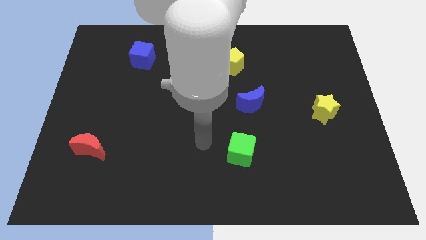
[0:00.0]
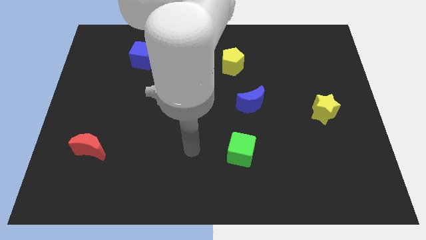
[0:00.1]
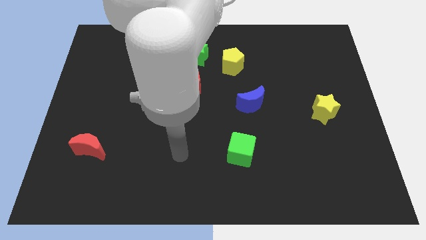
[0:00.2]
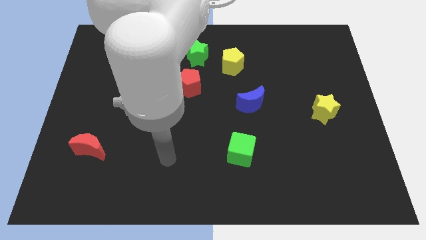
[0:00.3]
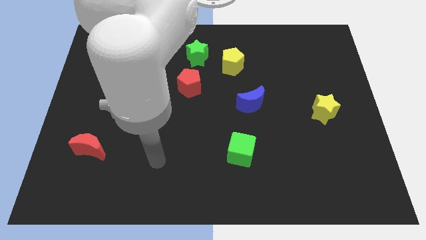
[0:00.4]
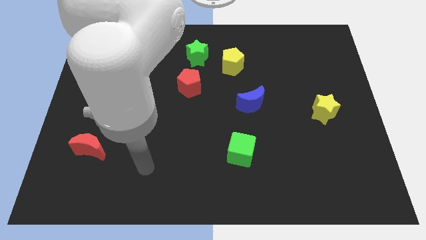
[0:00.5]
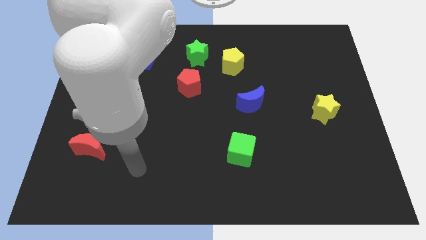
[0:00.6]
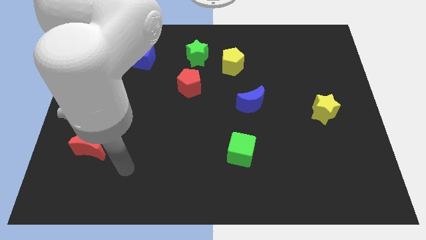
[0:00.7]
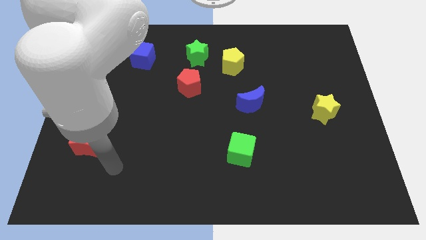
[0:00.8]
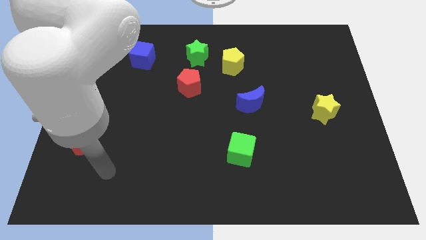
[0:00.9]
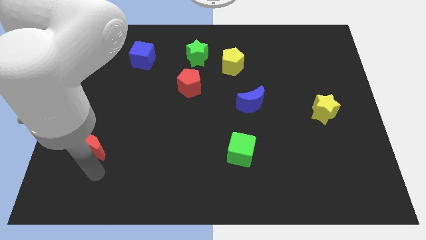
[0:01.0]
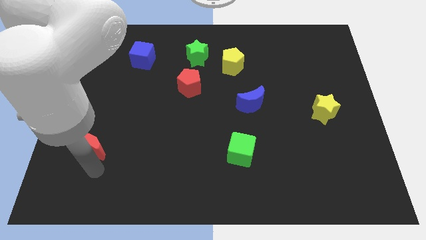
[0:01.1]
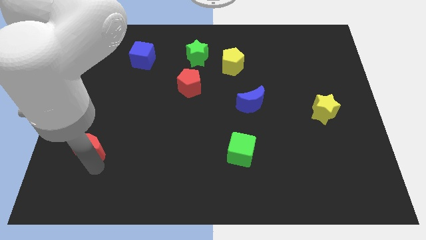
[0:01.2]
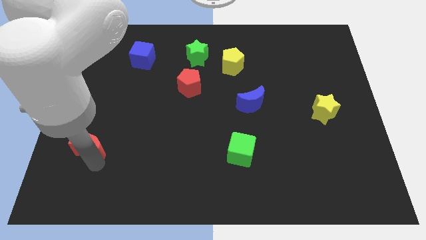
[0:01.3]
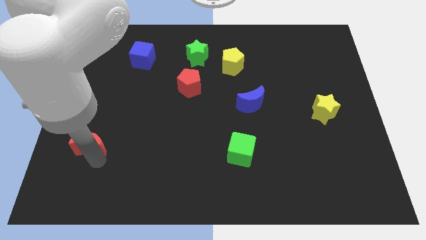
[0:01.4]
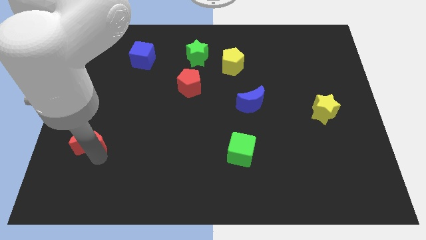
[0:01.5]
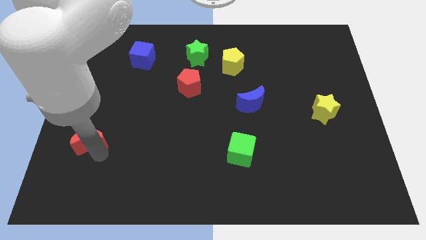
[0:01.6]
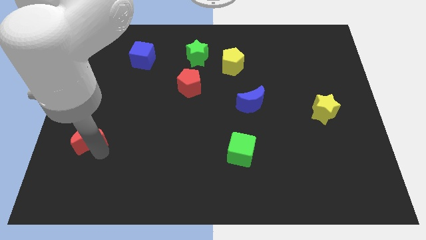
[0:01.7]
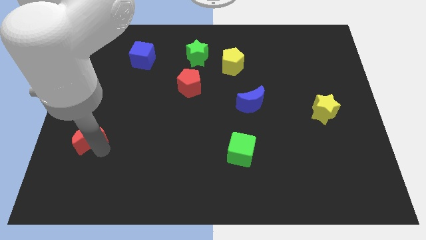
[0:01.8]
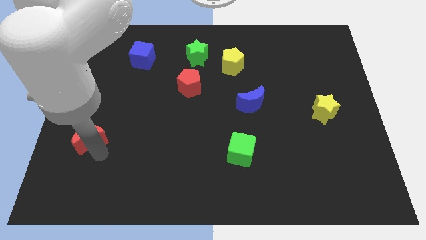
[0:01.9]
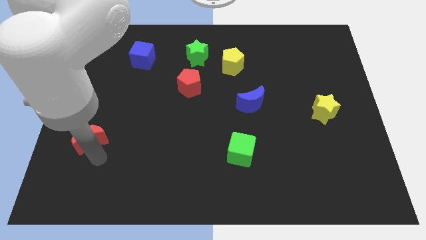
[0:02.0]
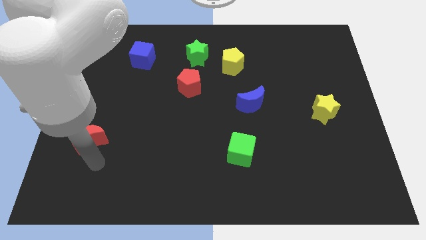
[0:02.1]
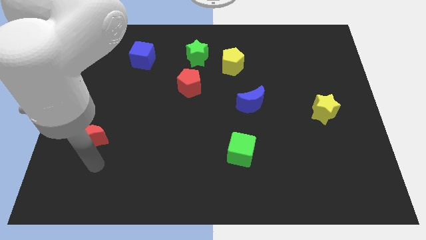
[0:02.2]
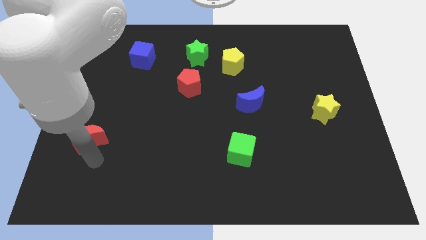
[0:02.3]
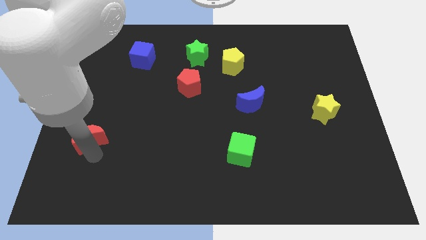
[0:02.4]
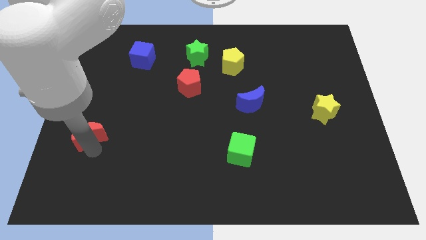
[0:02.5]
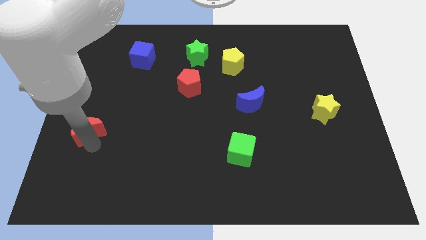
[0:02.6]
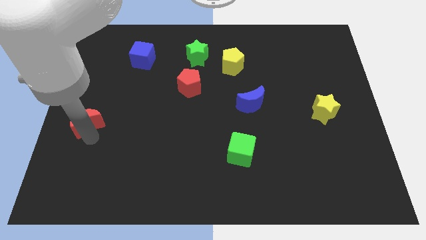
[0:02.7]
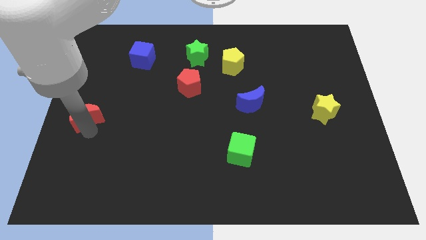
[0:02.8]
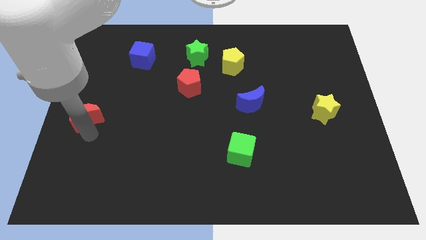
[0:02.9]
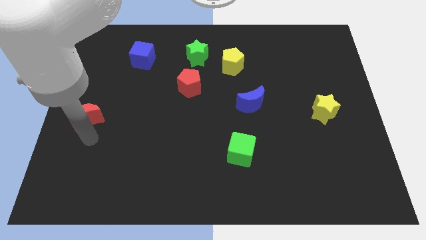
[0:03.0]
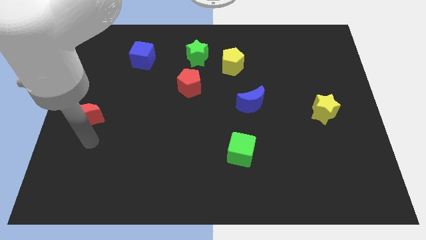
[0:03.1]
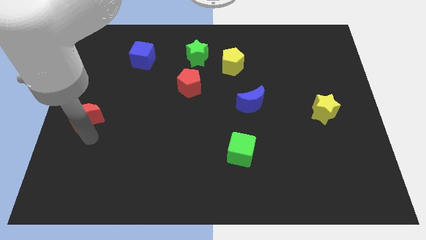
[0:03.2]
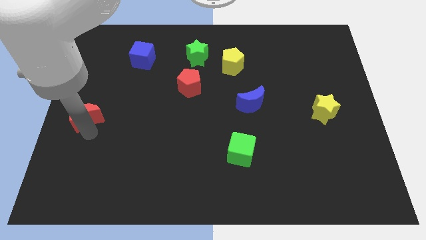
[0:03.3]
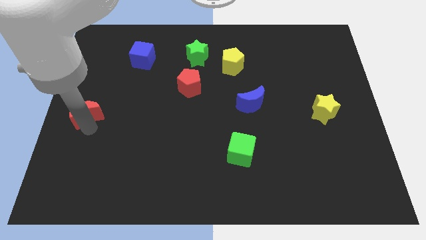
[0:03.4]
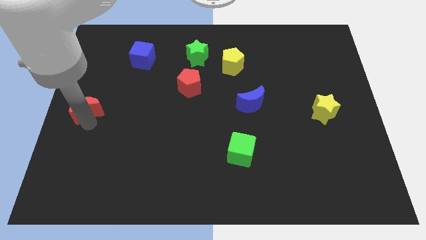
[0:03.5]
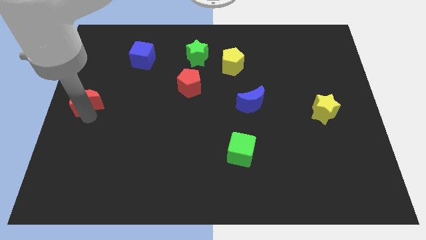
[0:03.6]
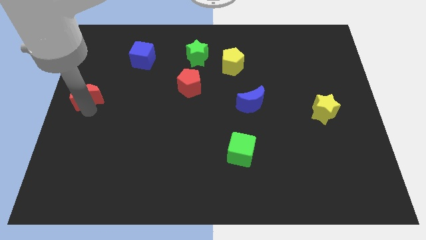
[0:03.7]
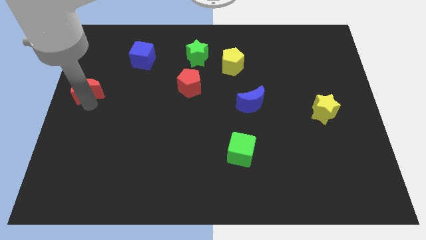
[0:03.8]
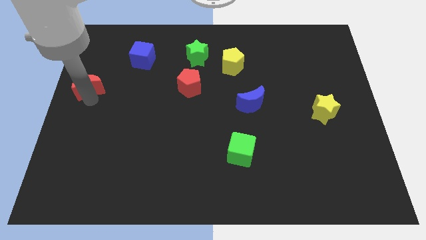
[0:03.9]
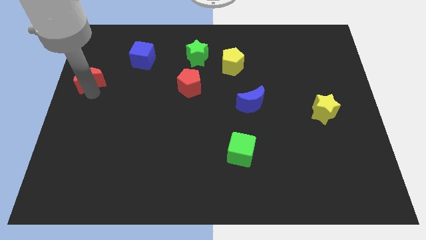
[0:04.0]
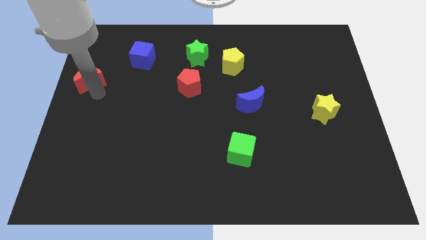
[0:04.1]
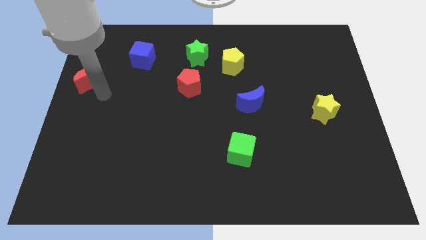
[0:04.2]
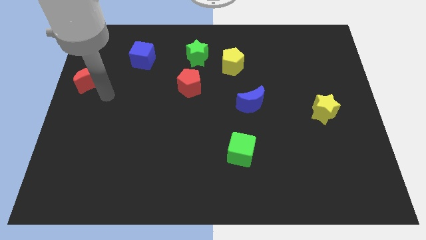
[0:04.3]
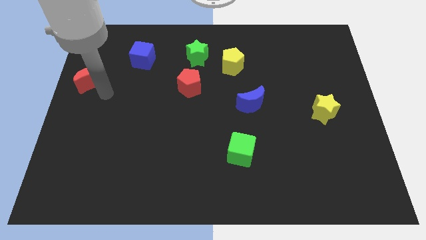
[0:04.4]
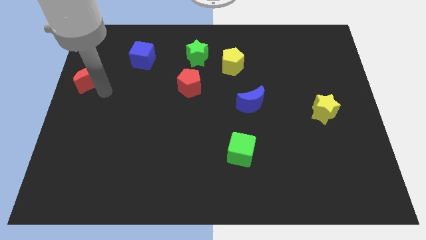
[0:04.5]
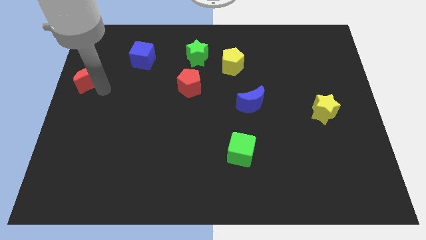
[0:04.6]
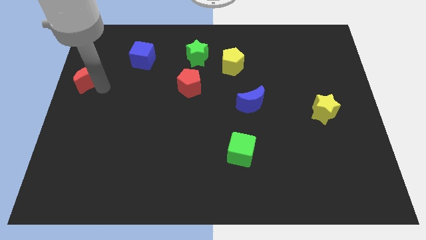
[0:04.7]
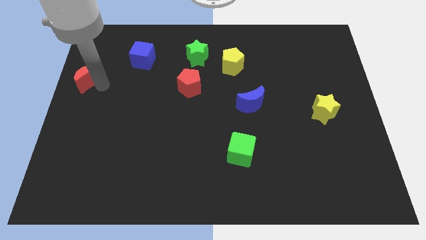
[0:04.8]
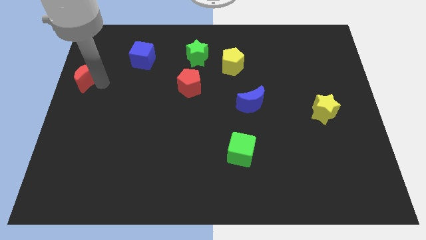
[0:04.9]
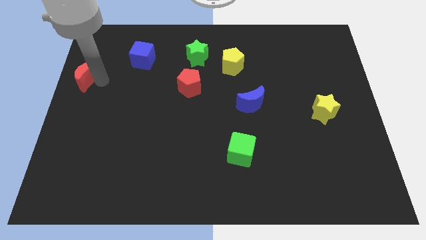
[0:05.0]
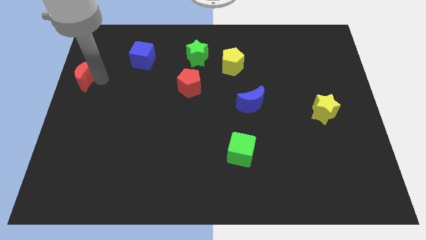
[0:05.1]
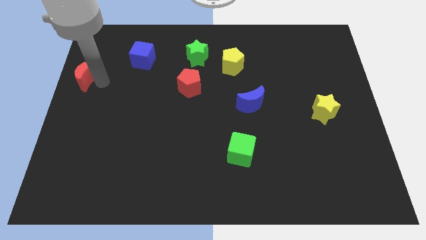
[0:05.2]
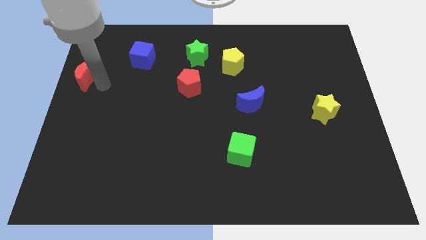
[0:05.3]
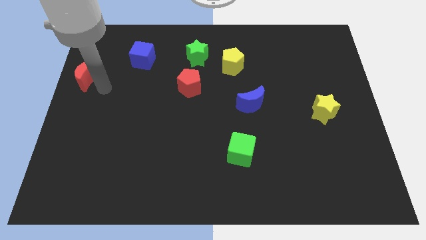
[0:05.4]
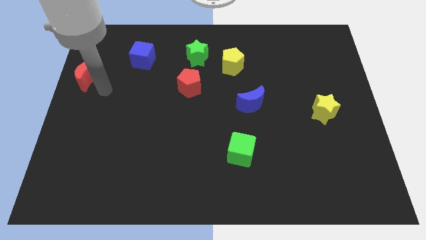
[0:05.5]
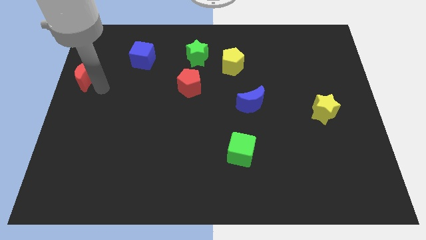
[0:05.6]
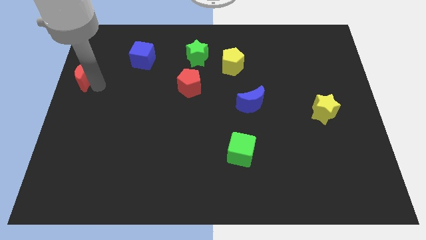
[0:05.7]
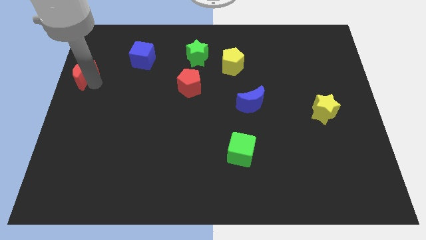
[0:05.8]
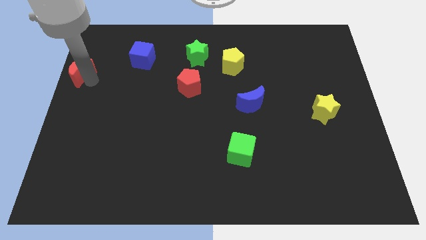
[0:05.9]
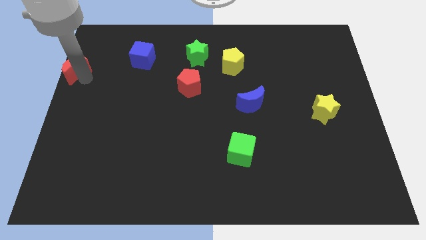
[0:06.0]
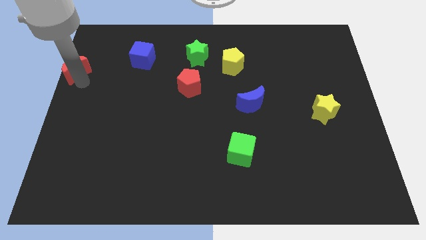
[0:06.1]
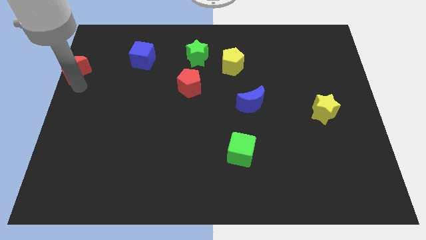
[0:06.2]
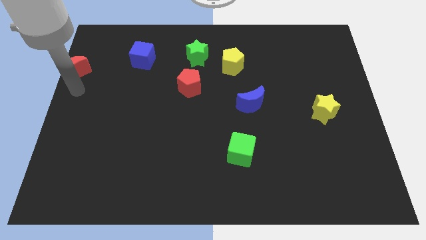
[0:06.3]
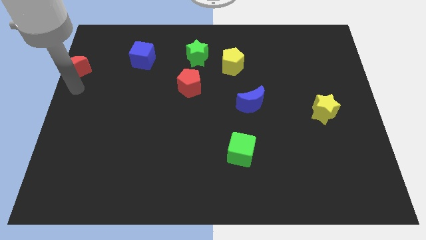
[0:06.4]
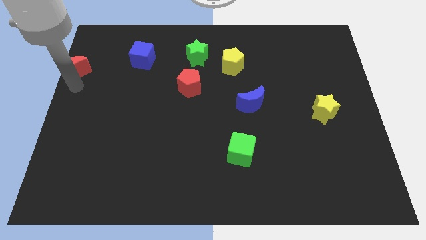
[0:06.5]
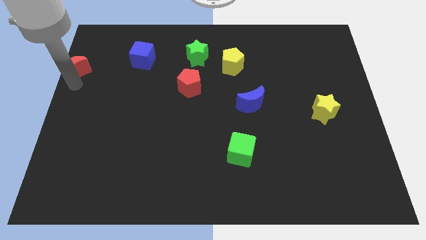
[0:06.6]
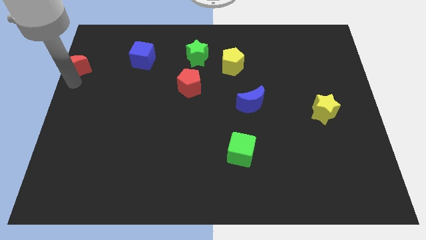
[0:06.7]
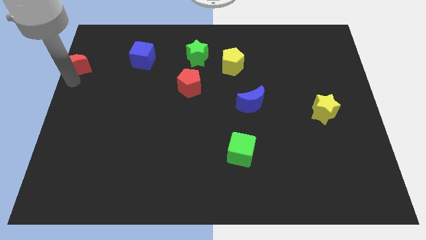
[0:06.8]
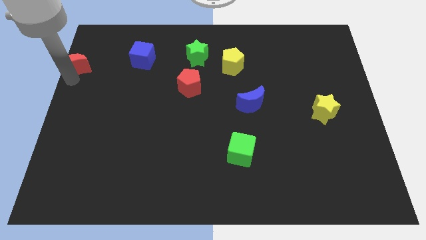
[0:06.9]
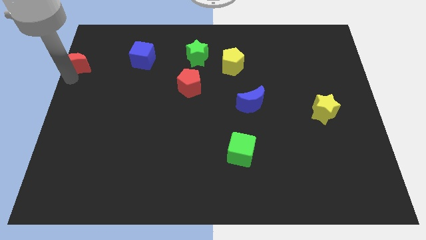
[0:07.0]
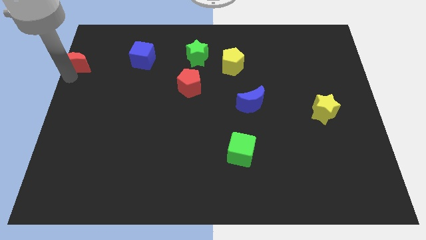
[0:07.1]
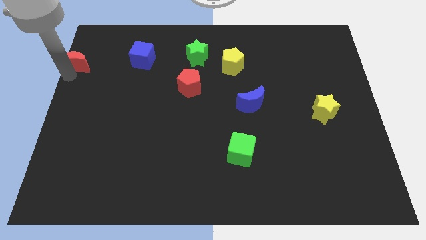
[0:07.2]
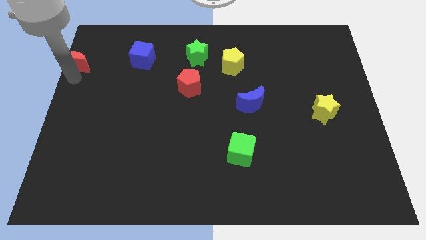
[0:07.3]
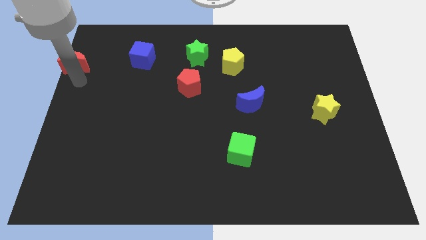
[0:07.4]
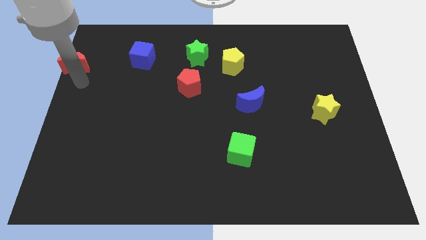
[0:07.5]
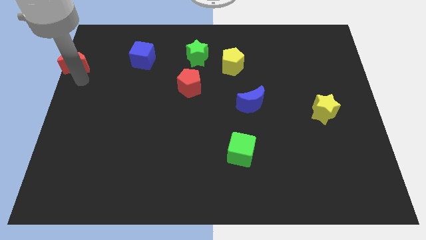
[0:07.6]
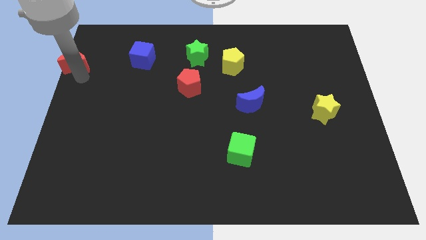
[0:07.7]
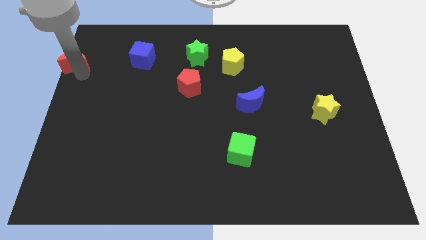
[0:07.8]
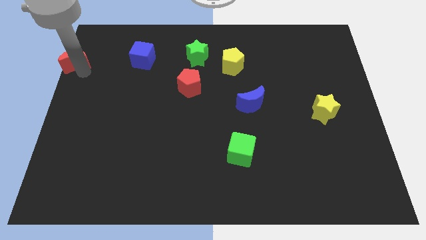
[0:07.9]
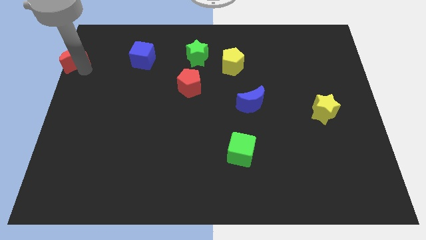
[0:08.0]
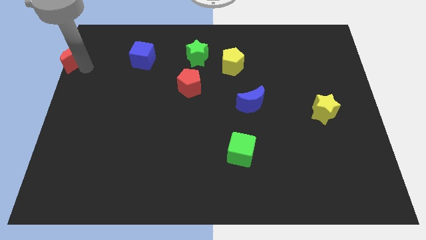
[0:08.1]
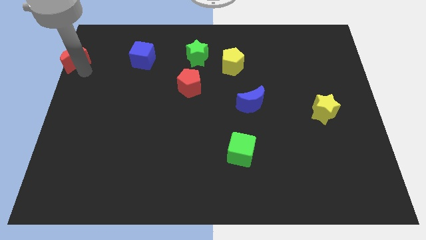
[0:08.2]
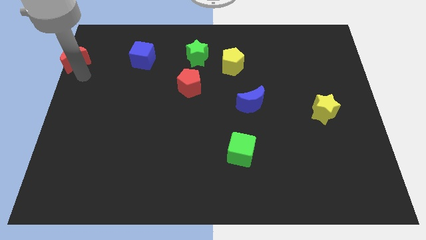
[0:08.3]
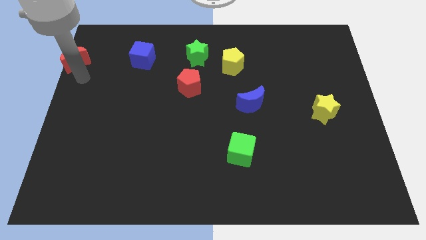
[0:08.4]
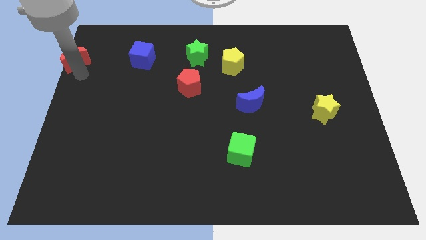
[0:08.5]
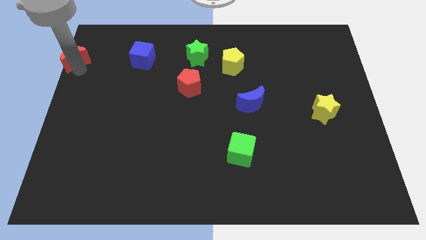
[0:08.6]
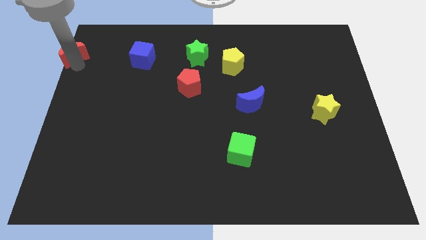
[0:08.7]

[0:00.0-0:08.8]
move the red moon to the top left corner
